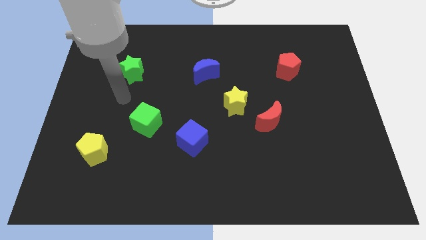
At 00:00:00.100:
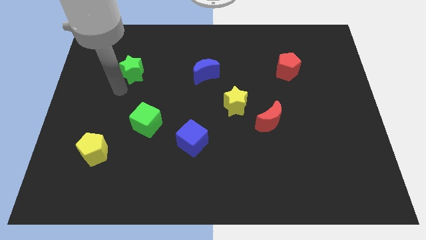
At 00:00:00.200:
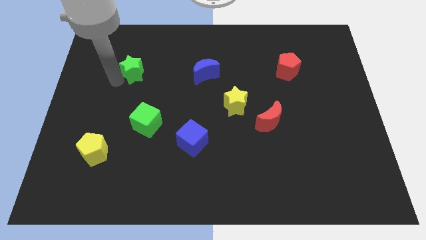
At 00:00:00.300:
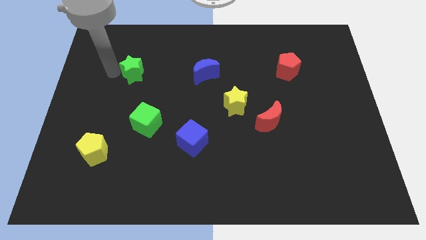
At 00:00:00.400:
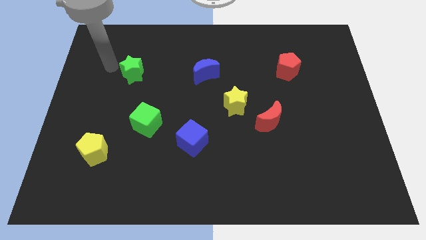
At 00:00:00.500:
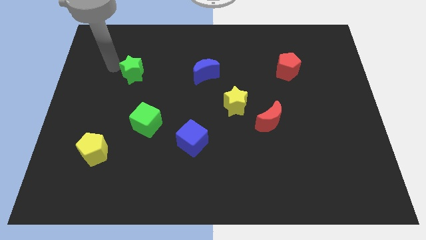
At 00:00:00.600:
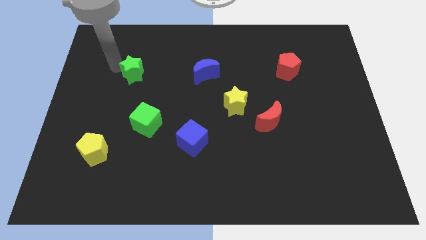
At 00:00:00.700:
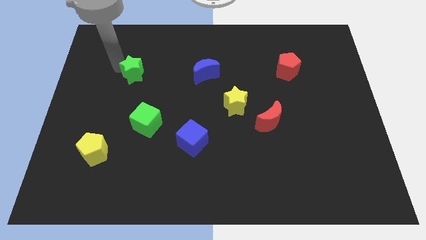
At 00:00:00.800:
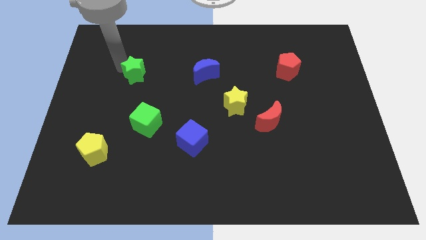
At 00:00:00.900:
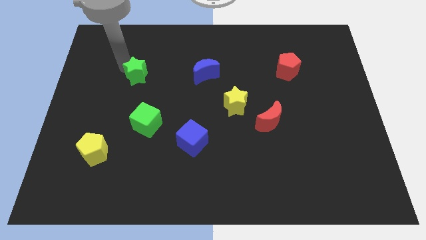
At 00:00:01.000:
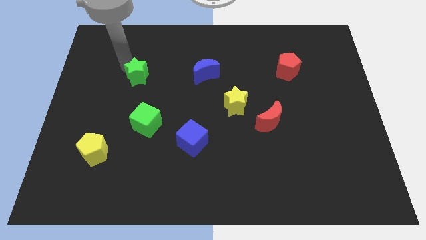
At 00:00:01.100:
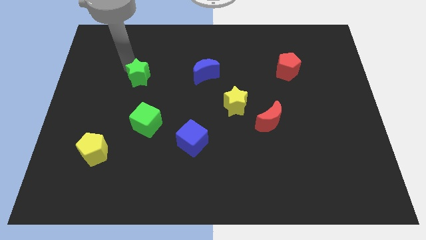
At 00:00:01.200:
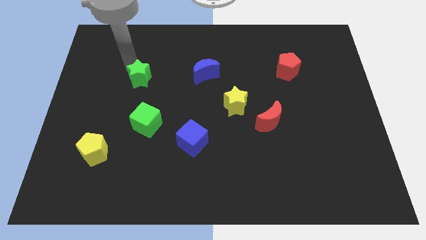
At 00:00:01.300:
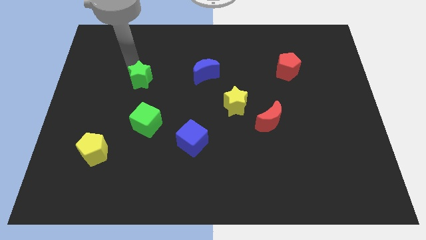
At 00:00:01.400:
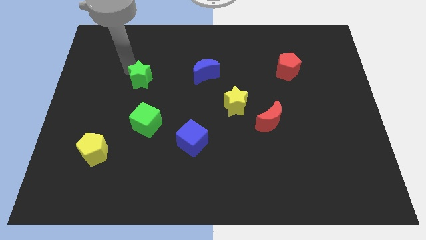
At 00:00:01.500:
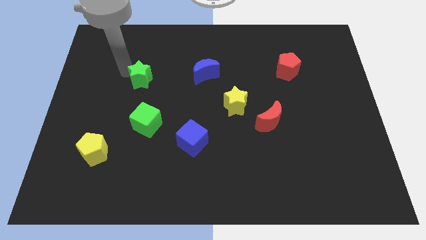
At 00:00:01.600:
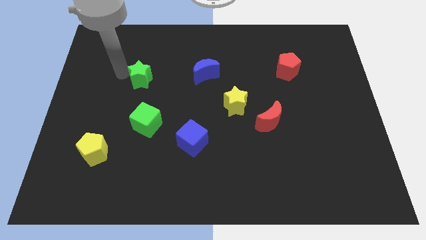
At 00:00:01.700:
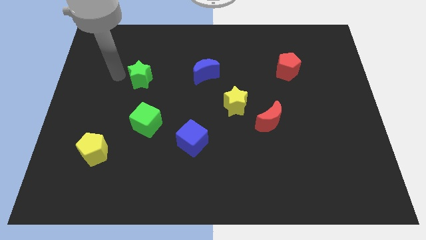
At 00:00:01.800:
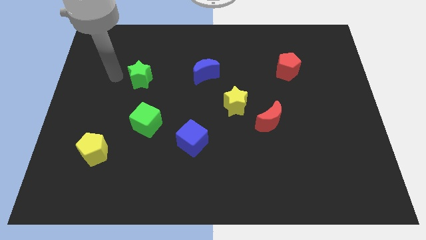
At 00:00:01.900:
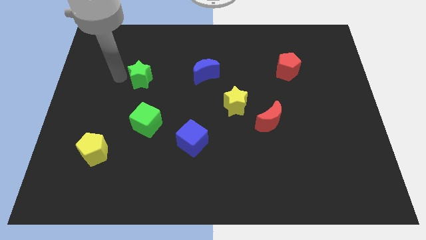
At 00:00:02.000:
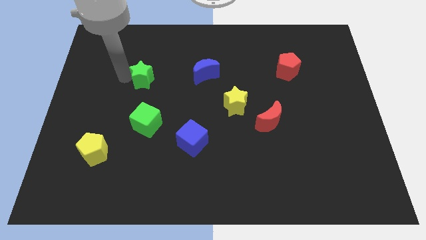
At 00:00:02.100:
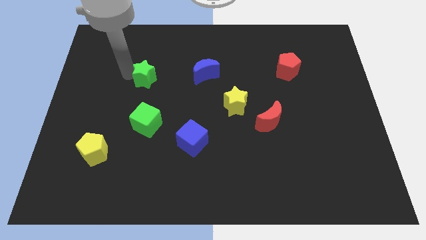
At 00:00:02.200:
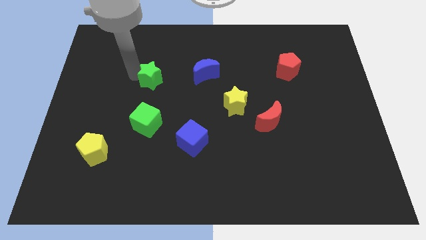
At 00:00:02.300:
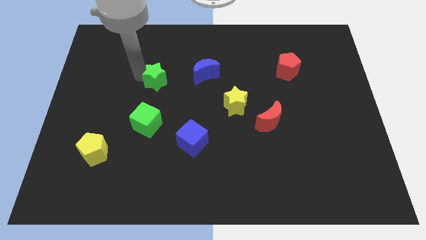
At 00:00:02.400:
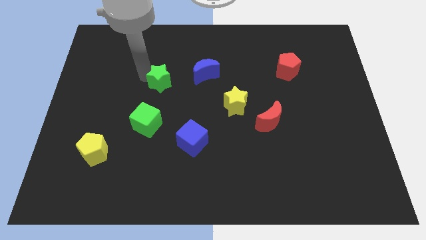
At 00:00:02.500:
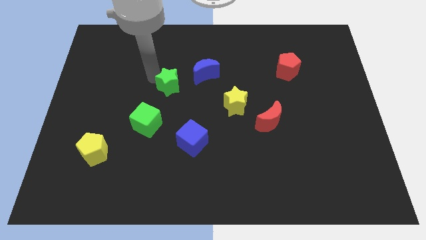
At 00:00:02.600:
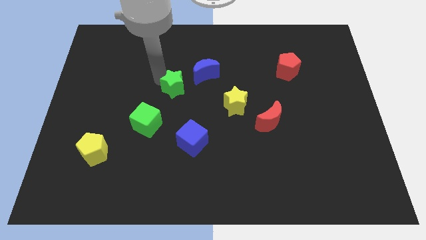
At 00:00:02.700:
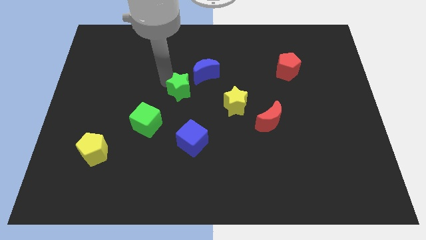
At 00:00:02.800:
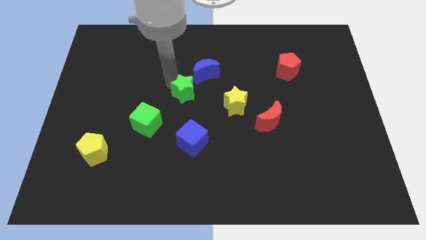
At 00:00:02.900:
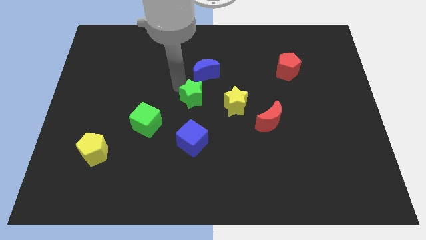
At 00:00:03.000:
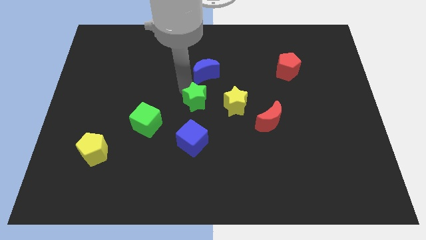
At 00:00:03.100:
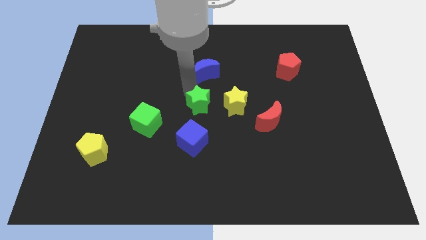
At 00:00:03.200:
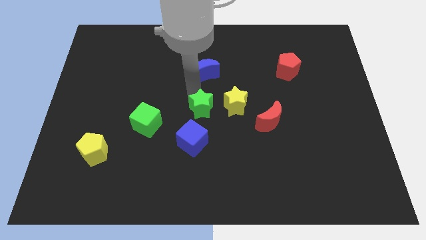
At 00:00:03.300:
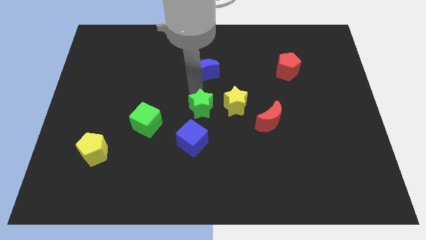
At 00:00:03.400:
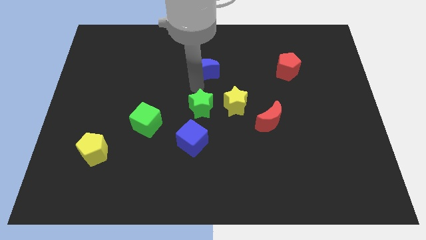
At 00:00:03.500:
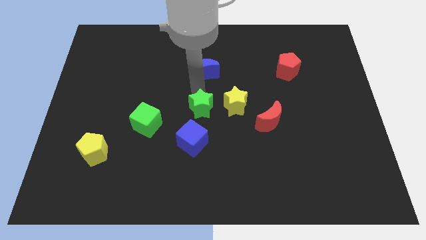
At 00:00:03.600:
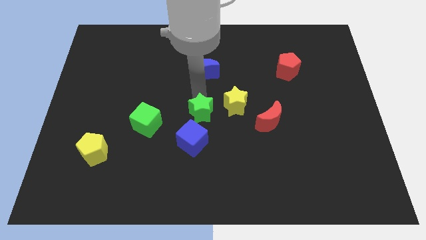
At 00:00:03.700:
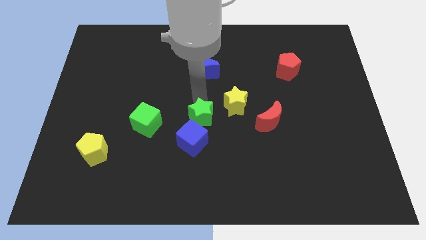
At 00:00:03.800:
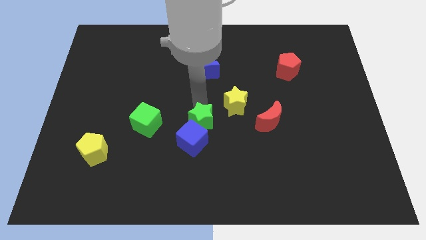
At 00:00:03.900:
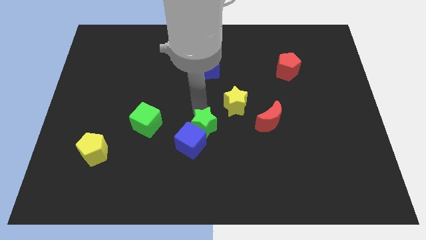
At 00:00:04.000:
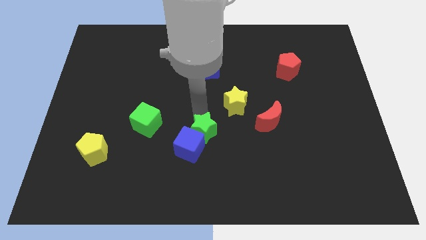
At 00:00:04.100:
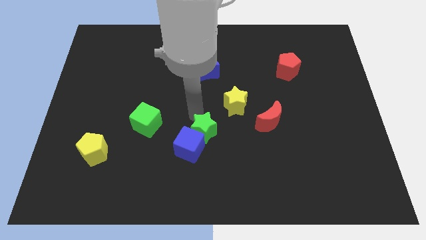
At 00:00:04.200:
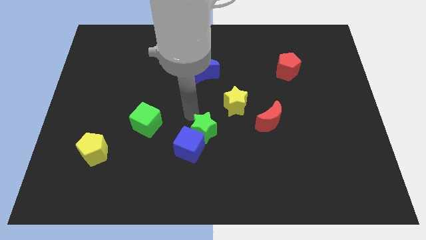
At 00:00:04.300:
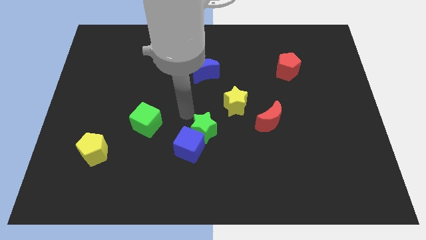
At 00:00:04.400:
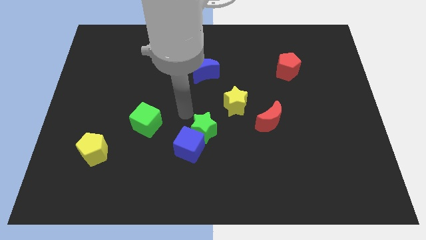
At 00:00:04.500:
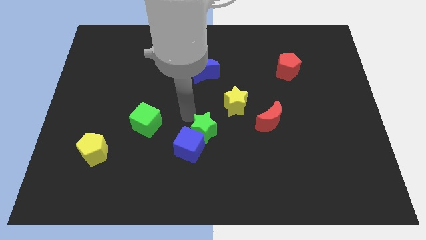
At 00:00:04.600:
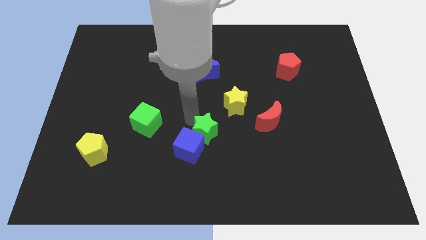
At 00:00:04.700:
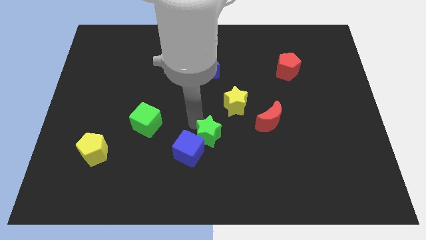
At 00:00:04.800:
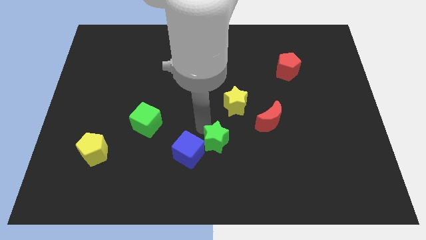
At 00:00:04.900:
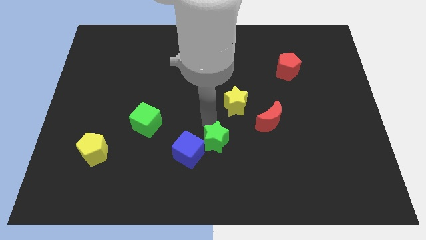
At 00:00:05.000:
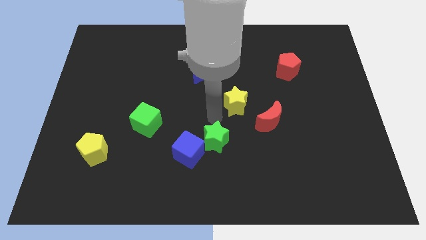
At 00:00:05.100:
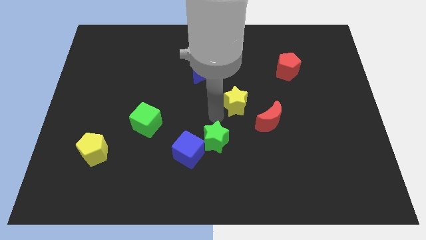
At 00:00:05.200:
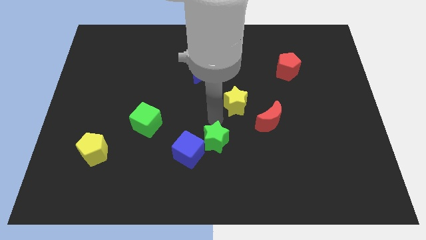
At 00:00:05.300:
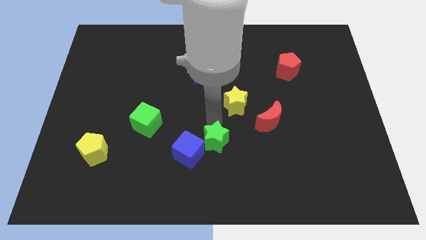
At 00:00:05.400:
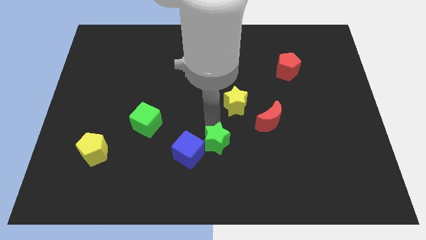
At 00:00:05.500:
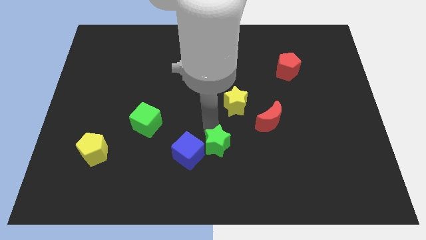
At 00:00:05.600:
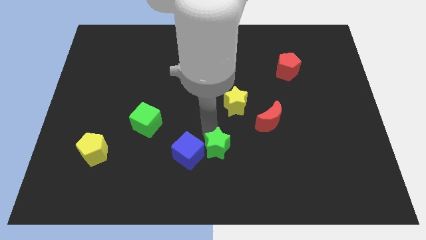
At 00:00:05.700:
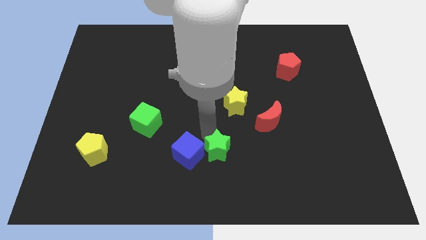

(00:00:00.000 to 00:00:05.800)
move the green star to the bottom right side of the blue cube

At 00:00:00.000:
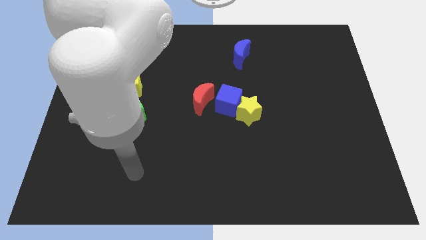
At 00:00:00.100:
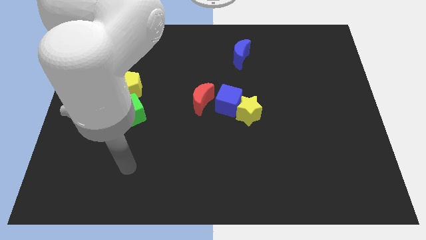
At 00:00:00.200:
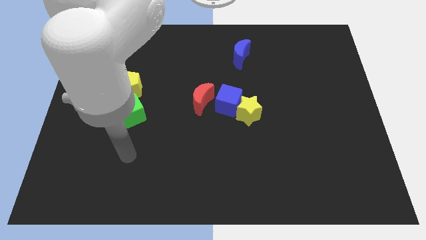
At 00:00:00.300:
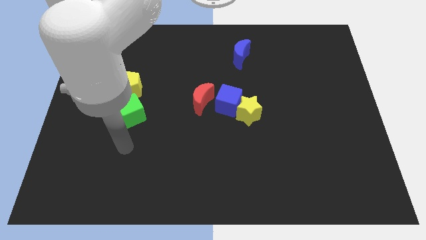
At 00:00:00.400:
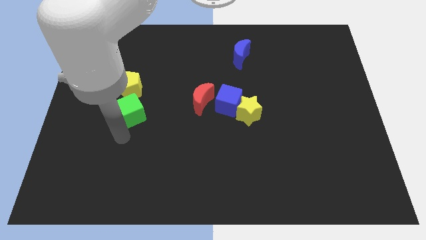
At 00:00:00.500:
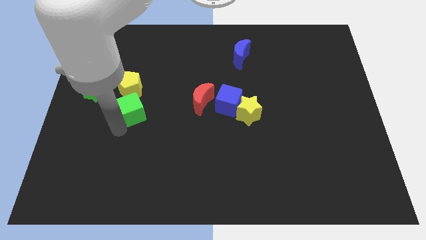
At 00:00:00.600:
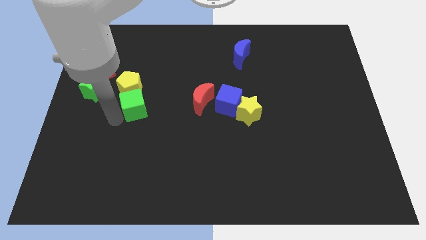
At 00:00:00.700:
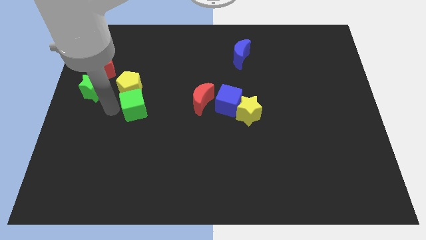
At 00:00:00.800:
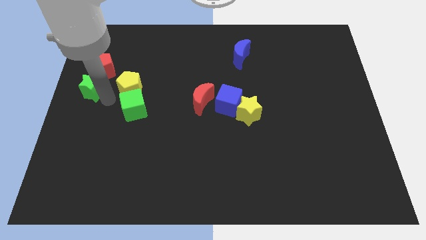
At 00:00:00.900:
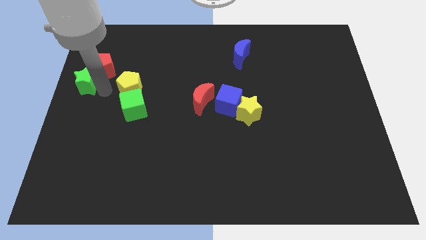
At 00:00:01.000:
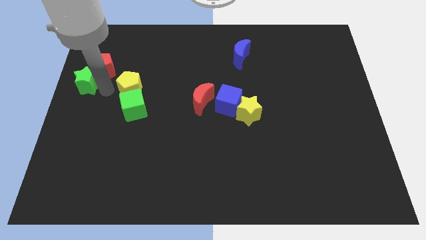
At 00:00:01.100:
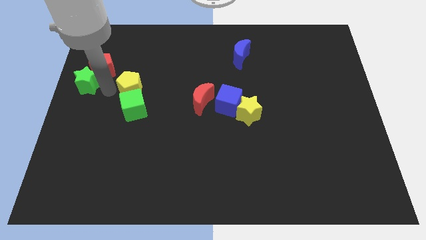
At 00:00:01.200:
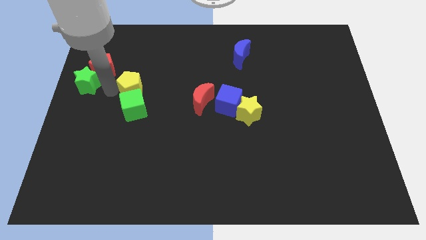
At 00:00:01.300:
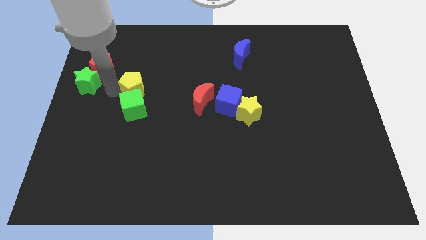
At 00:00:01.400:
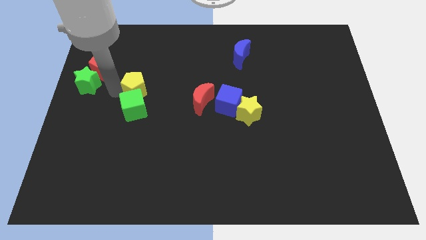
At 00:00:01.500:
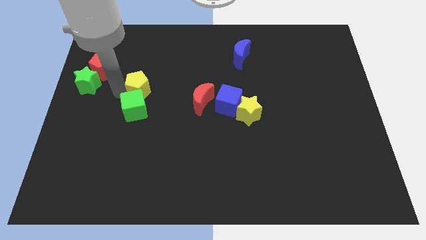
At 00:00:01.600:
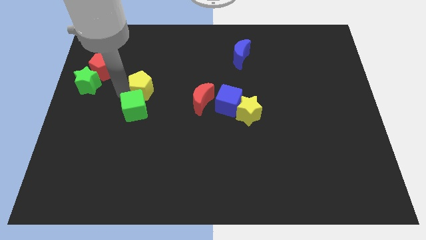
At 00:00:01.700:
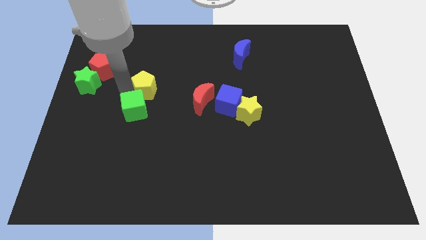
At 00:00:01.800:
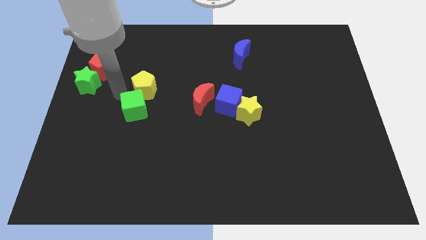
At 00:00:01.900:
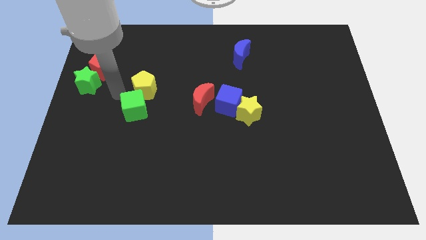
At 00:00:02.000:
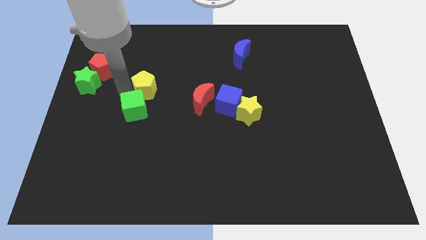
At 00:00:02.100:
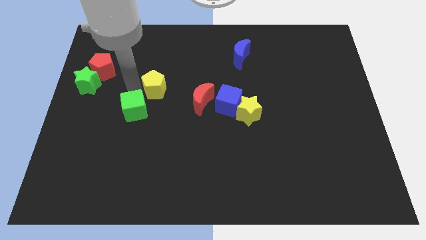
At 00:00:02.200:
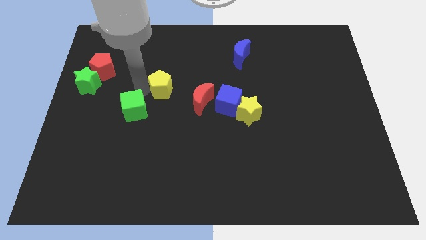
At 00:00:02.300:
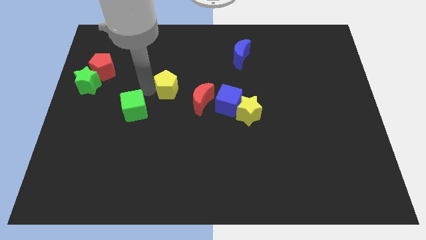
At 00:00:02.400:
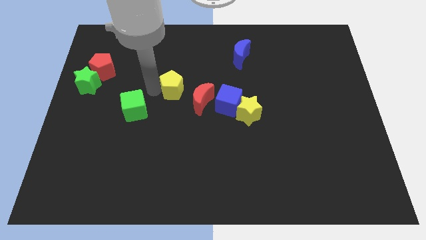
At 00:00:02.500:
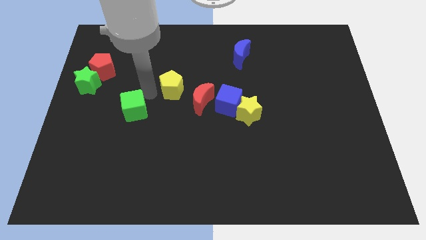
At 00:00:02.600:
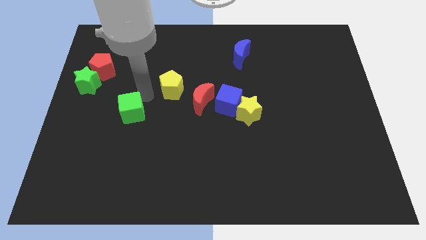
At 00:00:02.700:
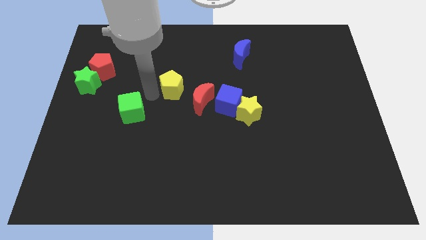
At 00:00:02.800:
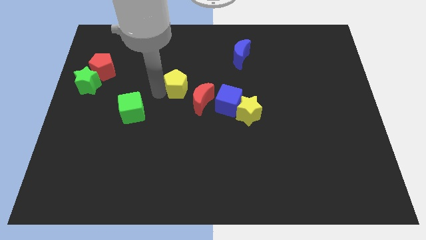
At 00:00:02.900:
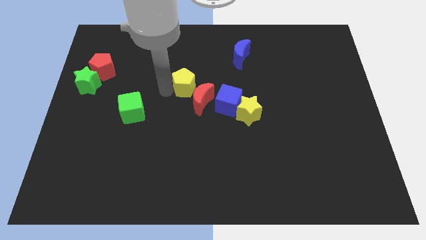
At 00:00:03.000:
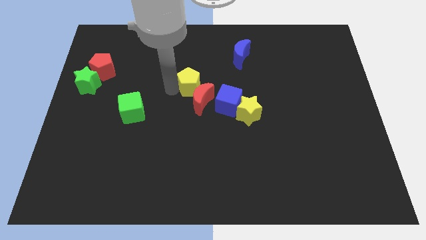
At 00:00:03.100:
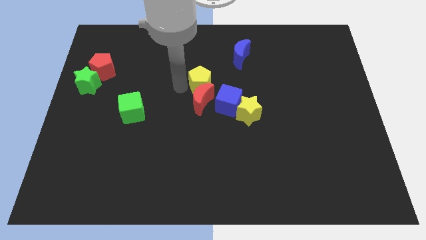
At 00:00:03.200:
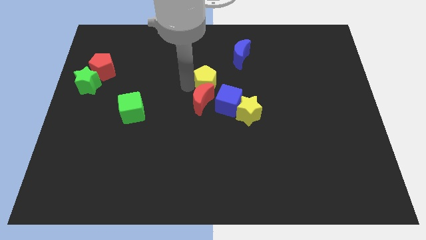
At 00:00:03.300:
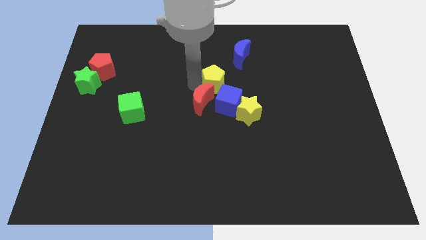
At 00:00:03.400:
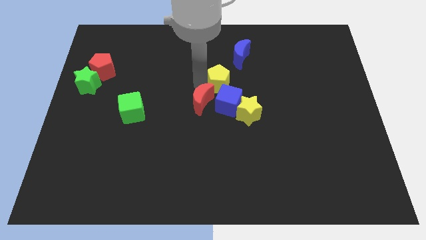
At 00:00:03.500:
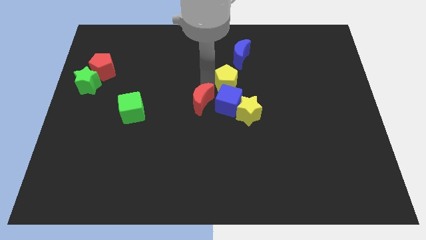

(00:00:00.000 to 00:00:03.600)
move the yellow pentagon above the yellow star
